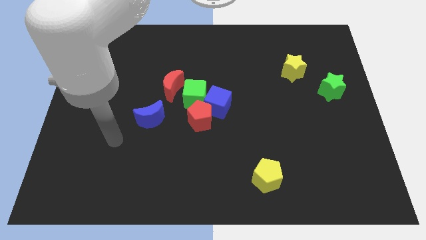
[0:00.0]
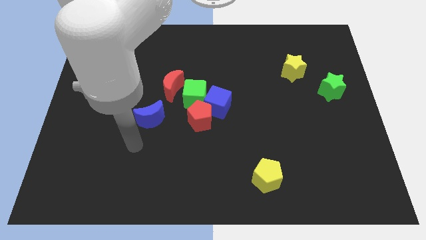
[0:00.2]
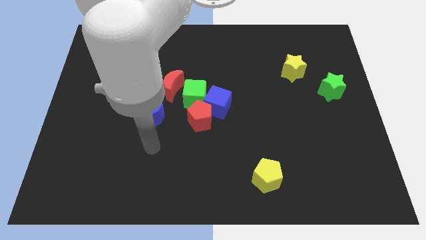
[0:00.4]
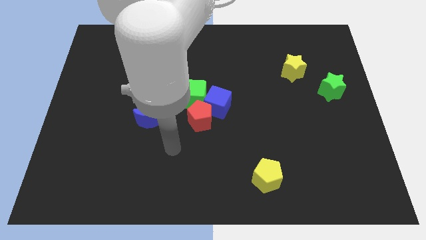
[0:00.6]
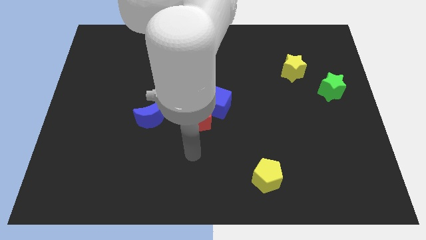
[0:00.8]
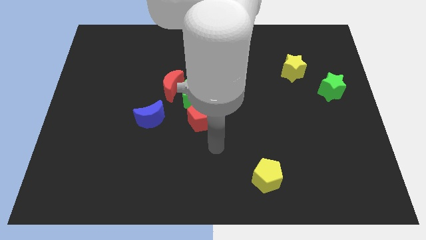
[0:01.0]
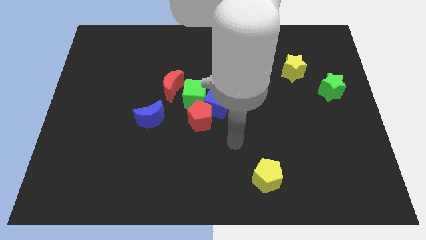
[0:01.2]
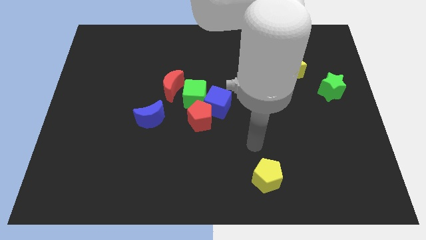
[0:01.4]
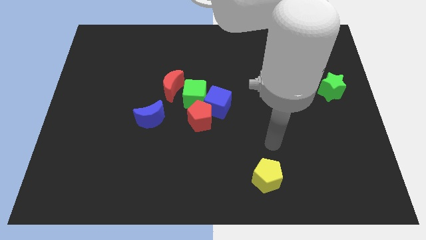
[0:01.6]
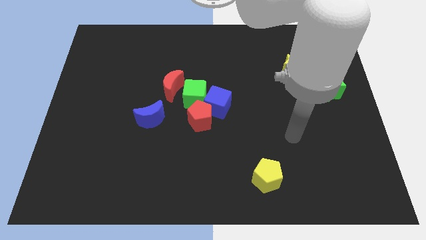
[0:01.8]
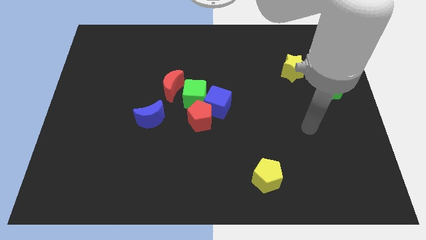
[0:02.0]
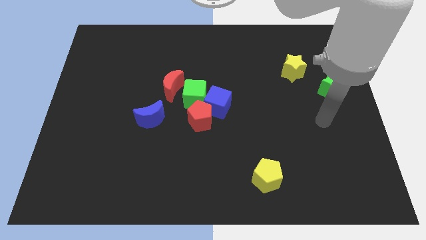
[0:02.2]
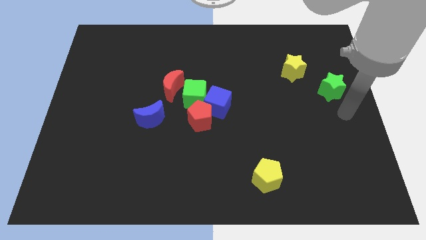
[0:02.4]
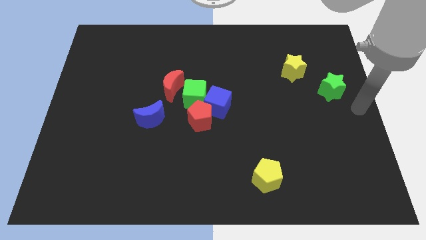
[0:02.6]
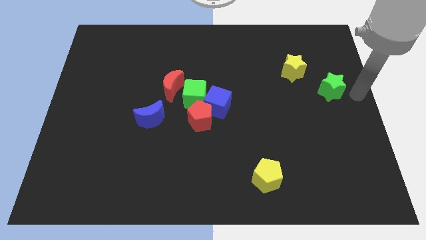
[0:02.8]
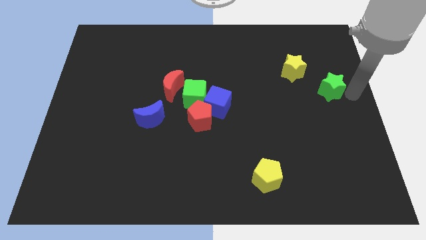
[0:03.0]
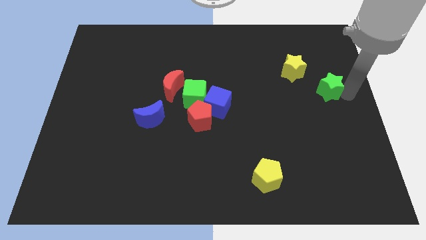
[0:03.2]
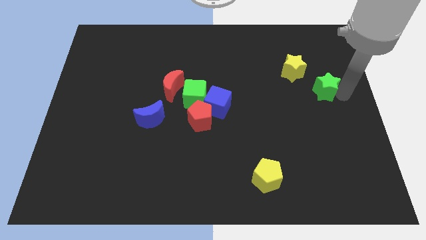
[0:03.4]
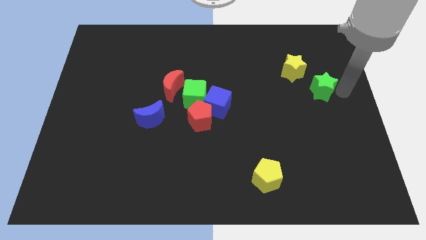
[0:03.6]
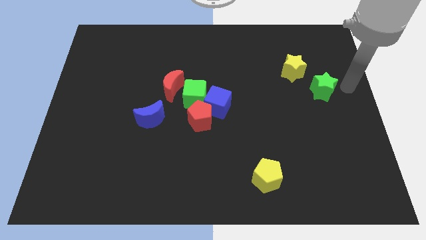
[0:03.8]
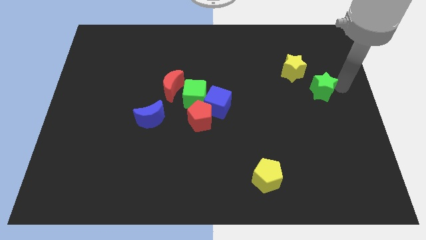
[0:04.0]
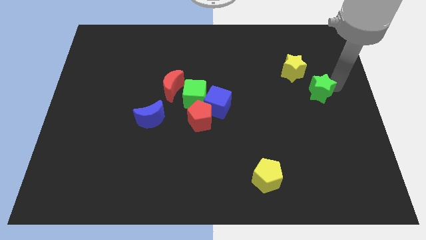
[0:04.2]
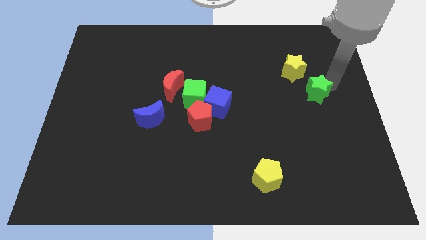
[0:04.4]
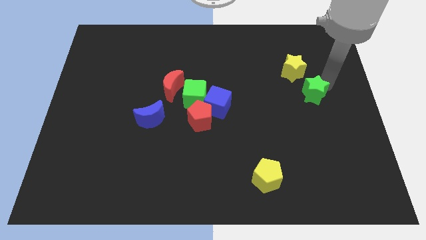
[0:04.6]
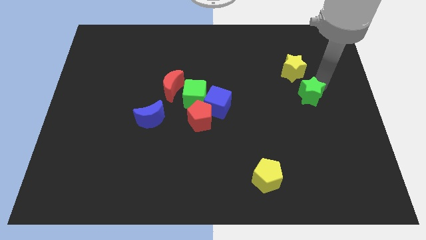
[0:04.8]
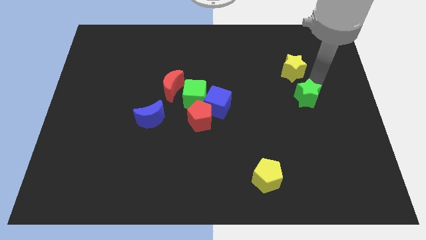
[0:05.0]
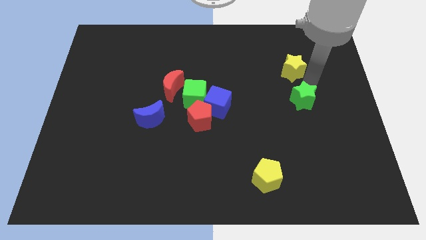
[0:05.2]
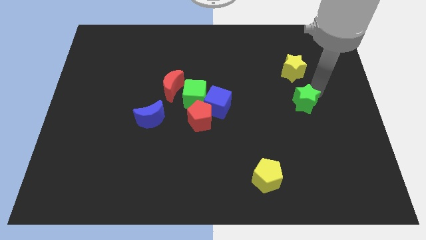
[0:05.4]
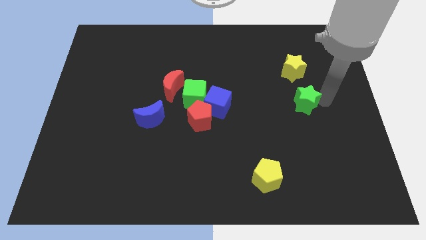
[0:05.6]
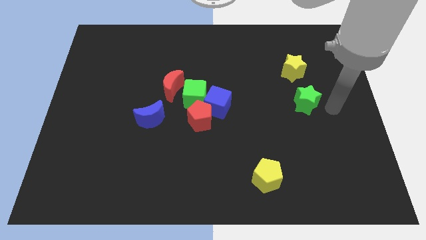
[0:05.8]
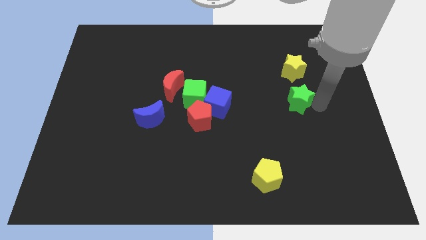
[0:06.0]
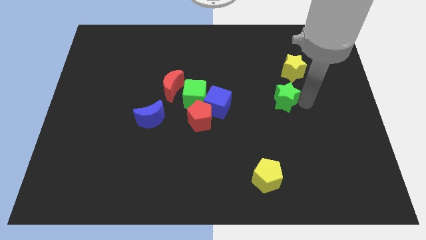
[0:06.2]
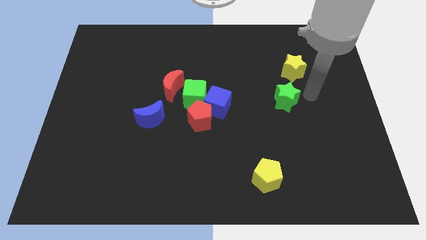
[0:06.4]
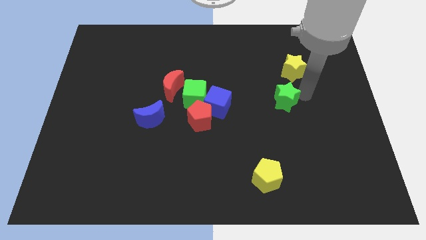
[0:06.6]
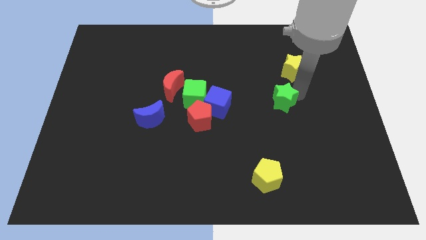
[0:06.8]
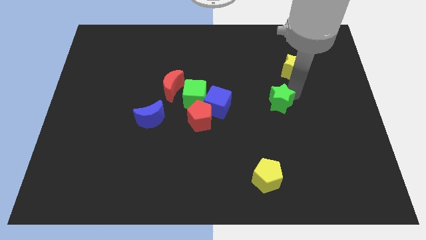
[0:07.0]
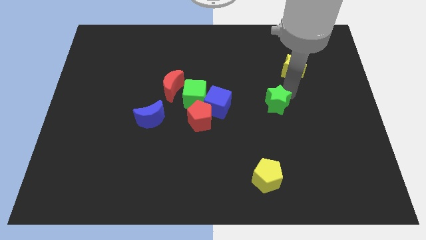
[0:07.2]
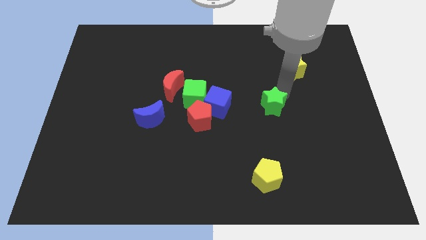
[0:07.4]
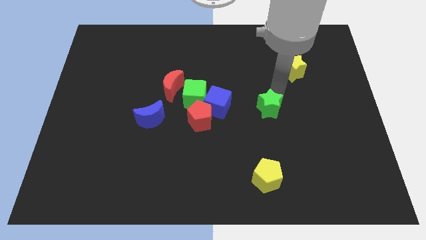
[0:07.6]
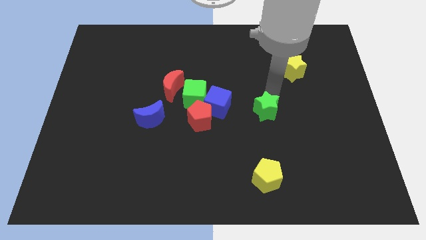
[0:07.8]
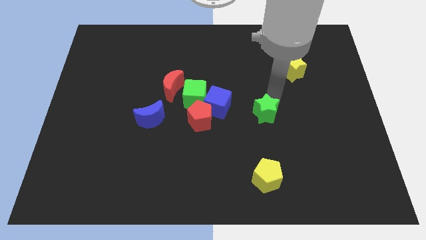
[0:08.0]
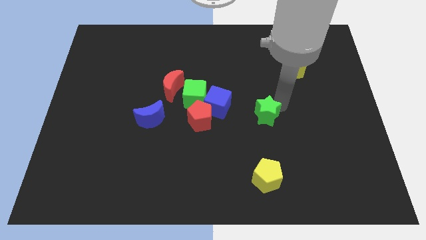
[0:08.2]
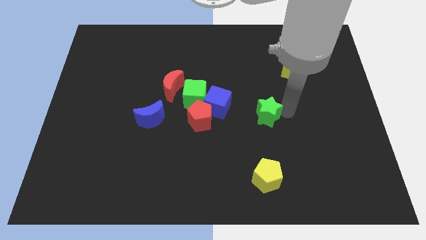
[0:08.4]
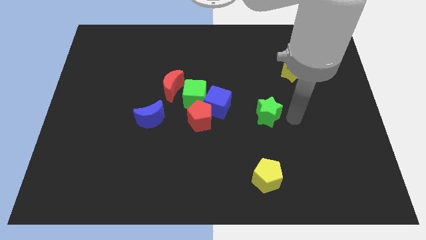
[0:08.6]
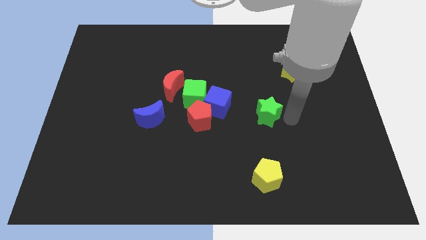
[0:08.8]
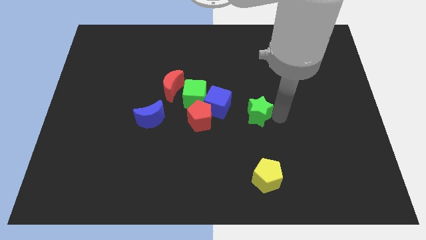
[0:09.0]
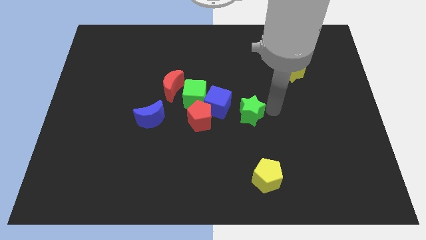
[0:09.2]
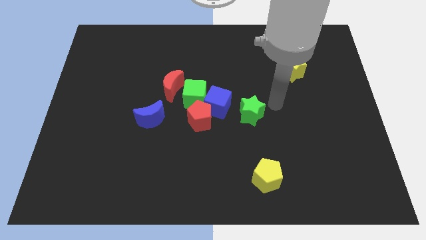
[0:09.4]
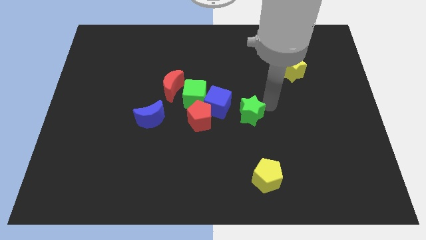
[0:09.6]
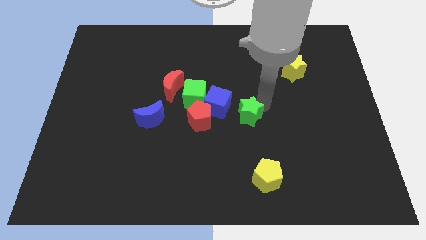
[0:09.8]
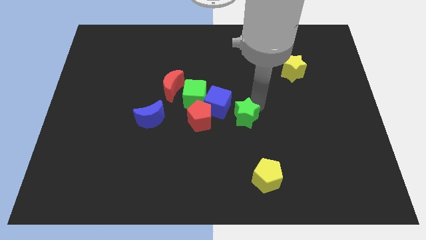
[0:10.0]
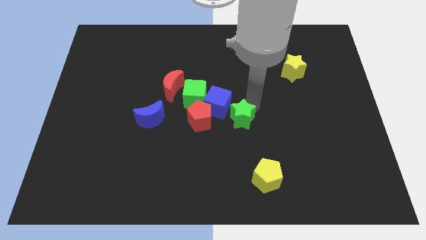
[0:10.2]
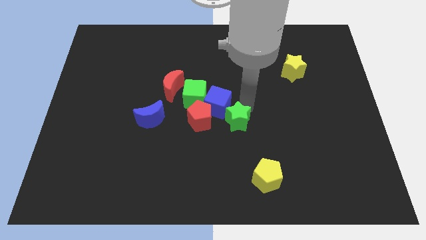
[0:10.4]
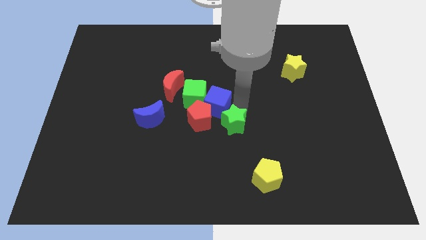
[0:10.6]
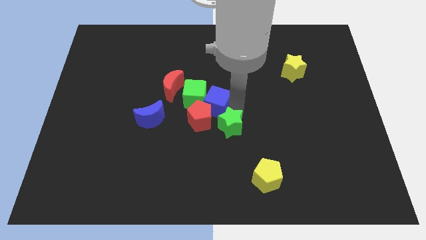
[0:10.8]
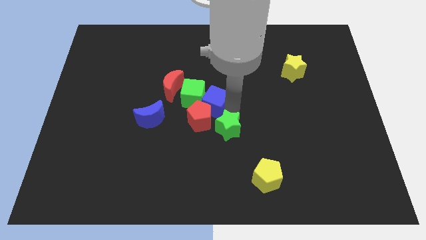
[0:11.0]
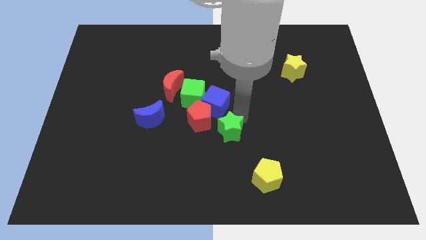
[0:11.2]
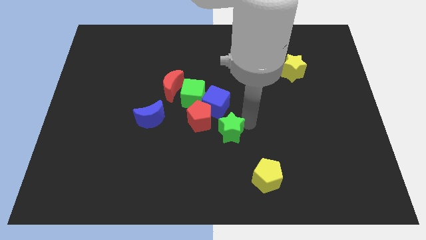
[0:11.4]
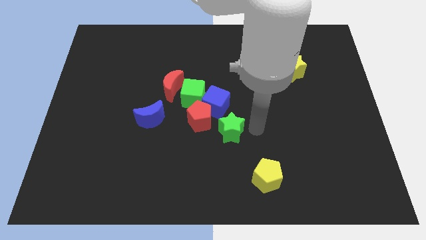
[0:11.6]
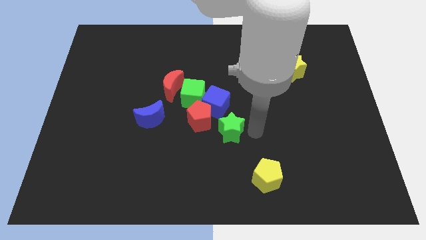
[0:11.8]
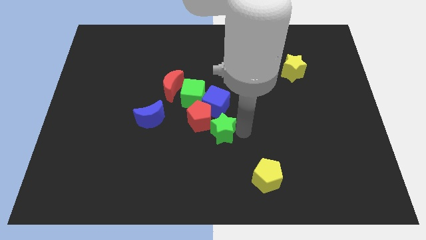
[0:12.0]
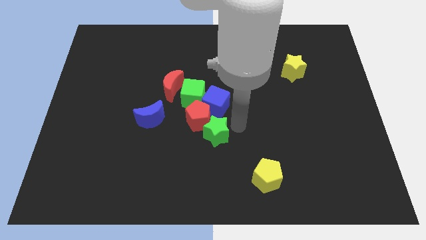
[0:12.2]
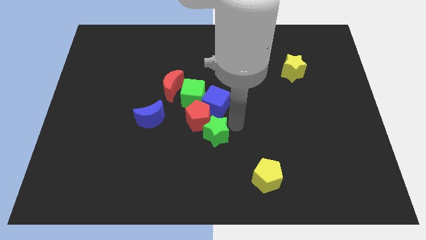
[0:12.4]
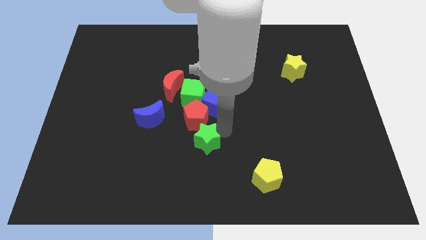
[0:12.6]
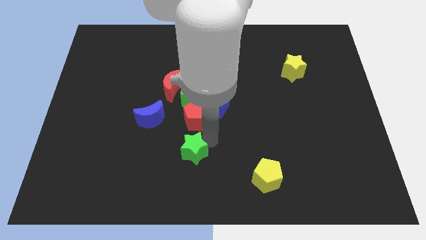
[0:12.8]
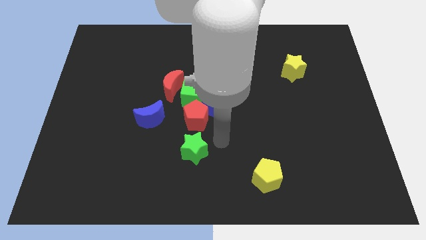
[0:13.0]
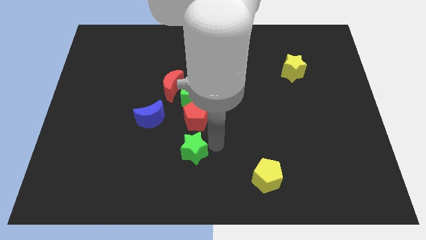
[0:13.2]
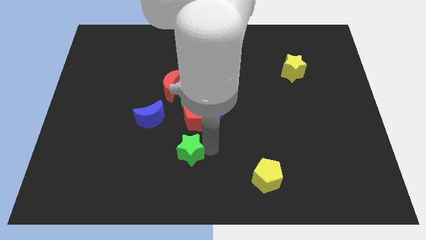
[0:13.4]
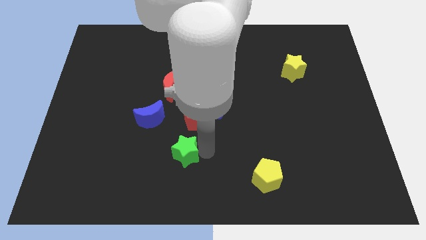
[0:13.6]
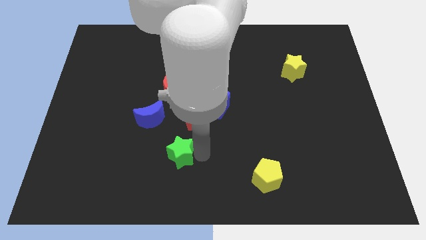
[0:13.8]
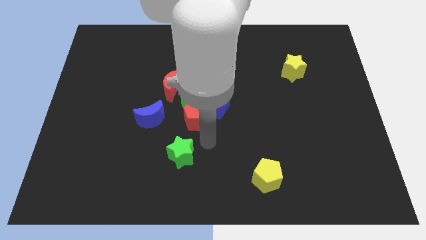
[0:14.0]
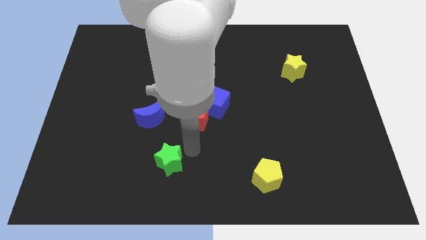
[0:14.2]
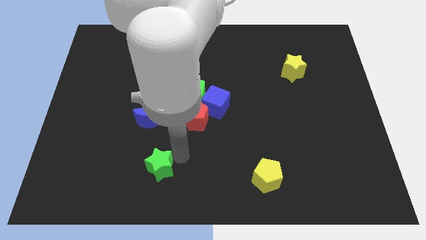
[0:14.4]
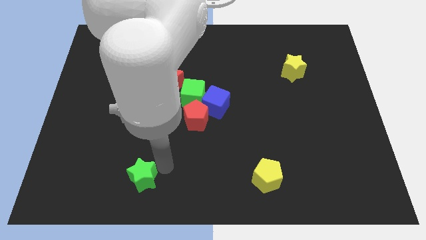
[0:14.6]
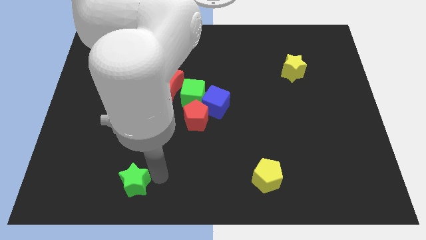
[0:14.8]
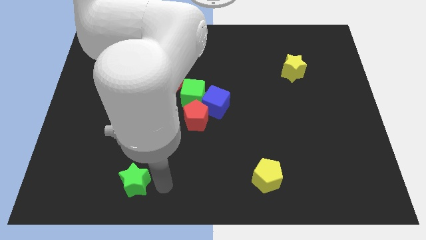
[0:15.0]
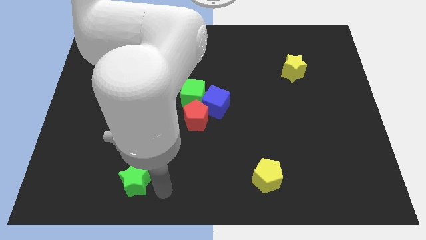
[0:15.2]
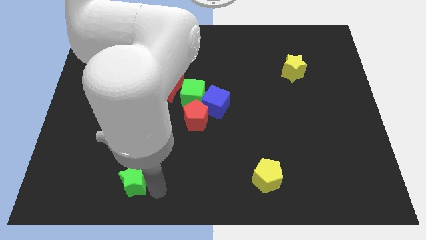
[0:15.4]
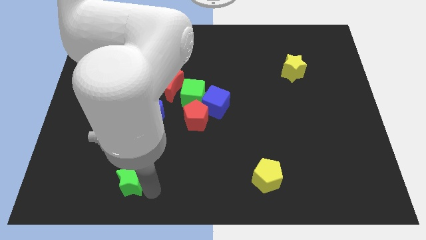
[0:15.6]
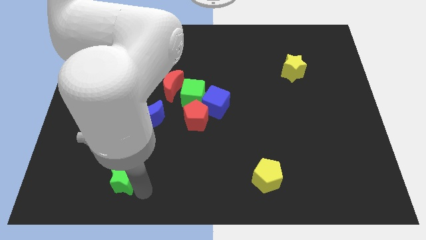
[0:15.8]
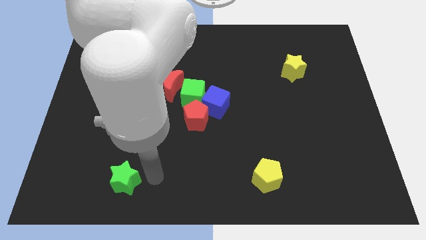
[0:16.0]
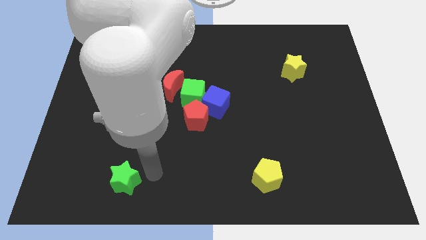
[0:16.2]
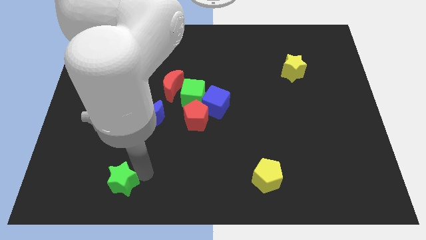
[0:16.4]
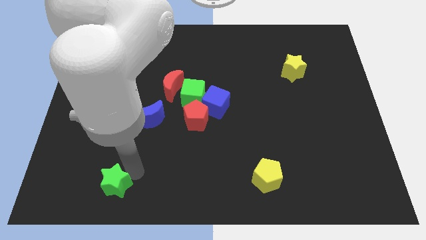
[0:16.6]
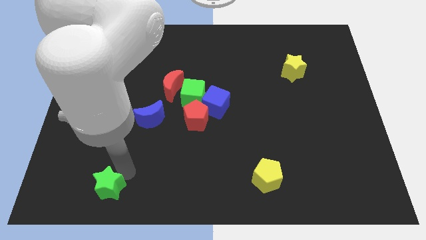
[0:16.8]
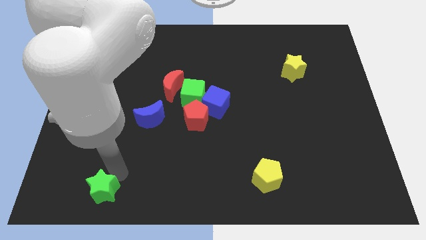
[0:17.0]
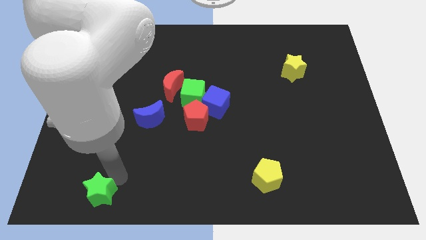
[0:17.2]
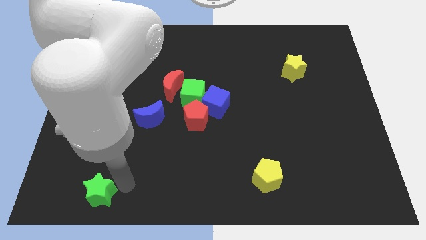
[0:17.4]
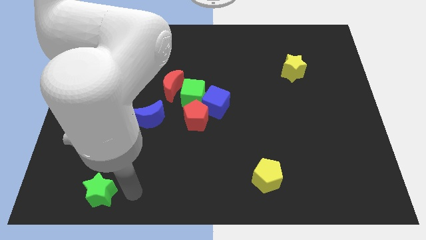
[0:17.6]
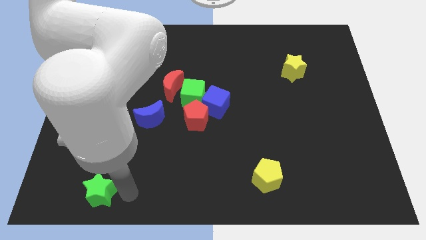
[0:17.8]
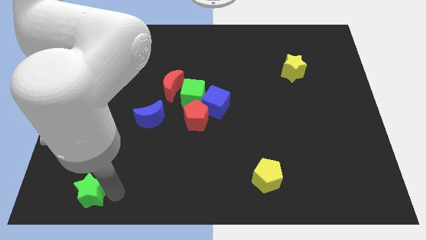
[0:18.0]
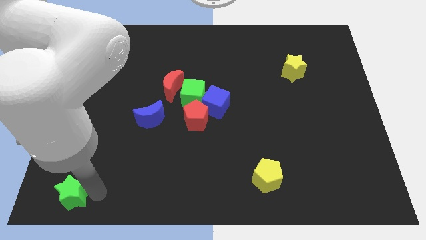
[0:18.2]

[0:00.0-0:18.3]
put the green star to the bottom left corner
